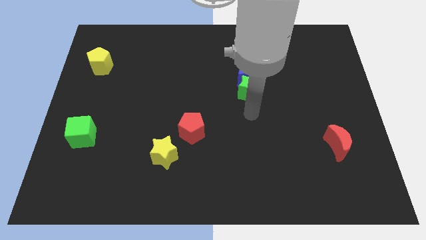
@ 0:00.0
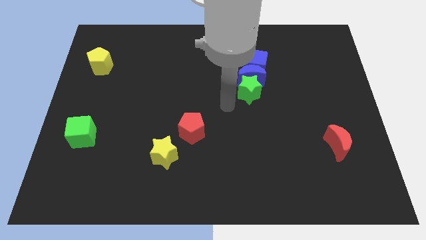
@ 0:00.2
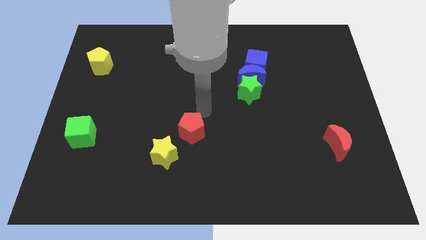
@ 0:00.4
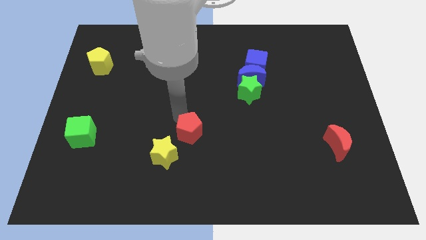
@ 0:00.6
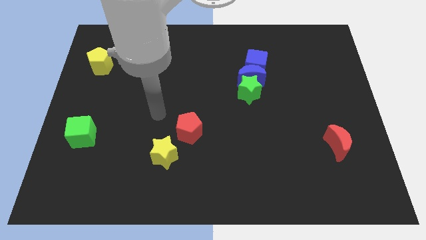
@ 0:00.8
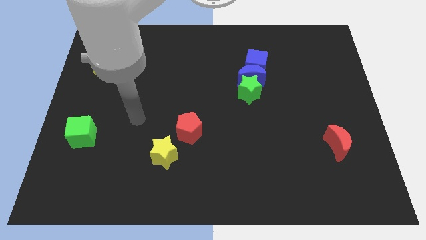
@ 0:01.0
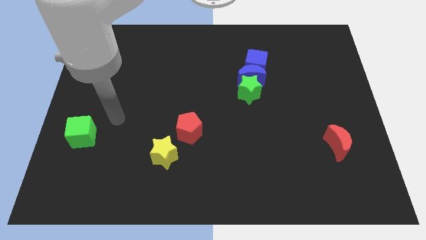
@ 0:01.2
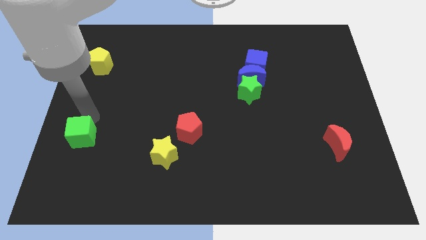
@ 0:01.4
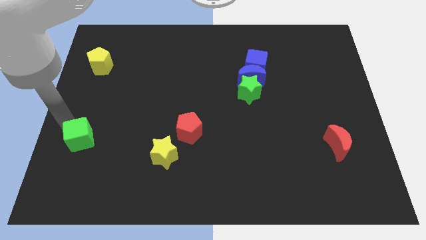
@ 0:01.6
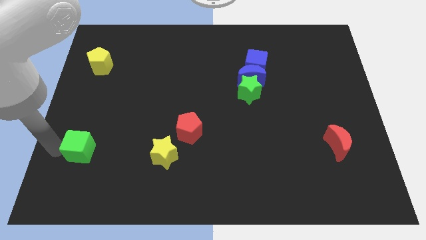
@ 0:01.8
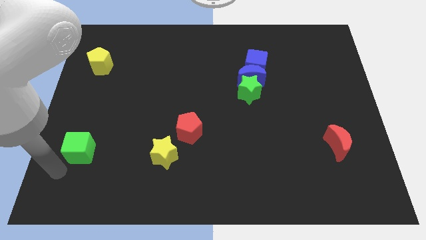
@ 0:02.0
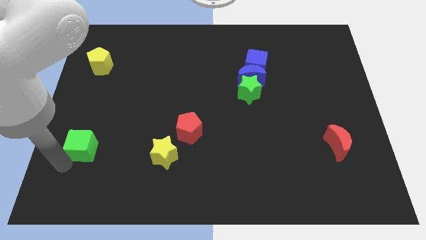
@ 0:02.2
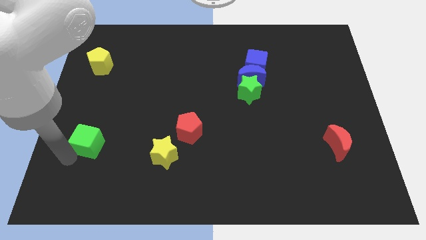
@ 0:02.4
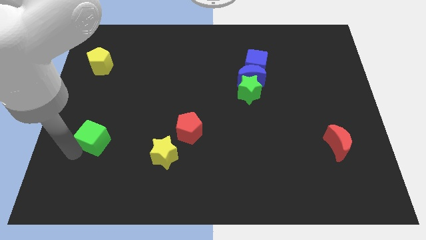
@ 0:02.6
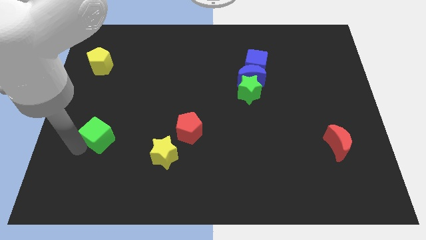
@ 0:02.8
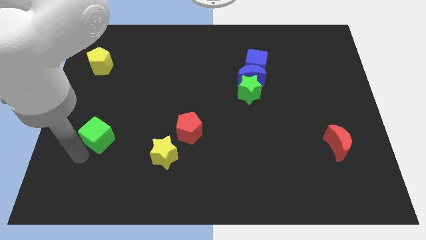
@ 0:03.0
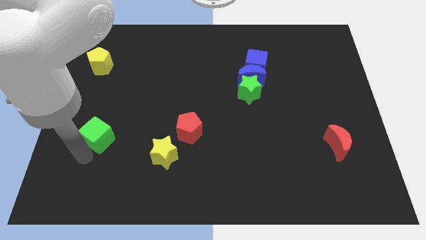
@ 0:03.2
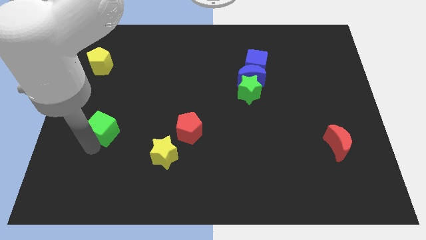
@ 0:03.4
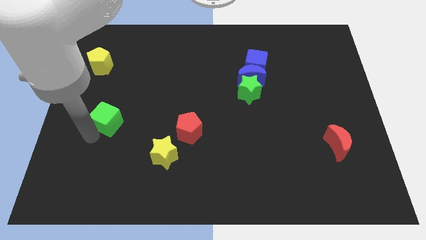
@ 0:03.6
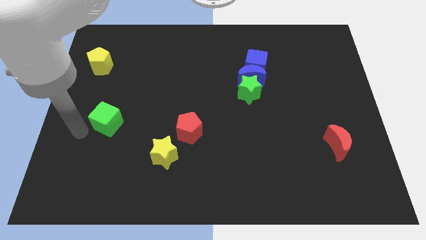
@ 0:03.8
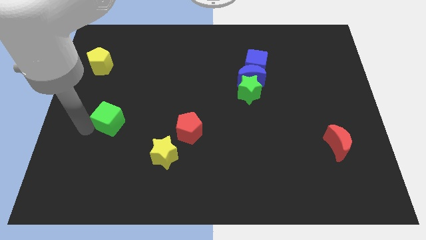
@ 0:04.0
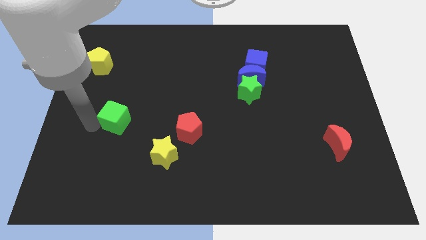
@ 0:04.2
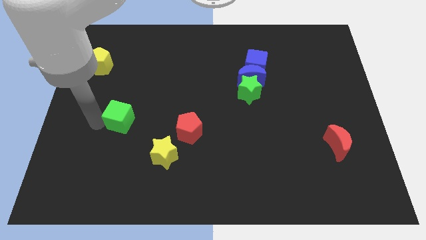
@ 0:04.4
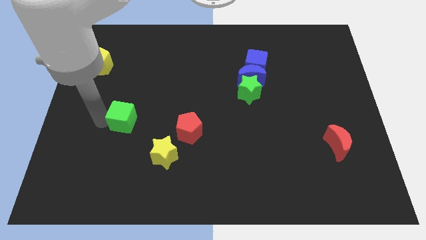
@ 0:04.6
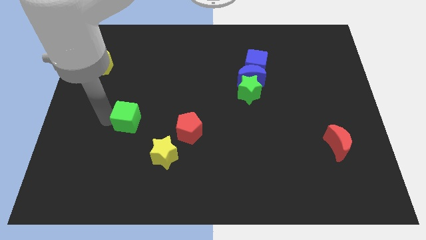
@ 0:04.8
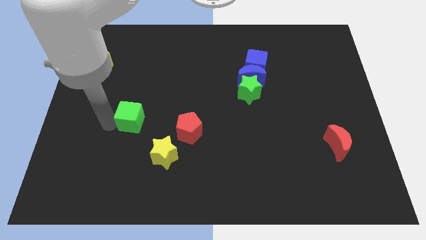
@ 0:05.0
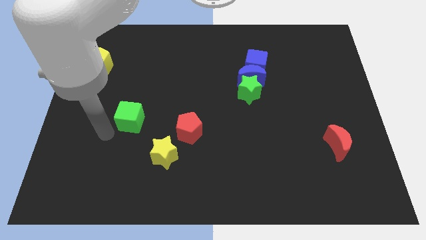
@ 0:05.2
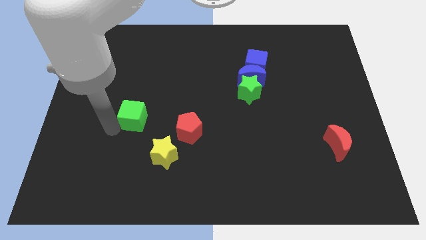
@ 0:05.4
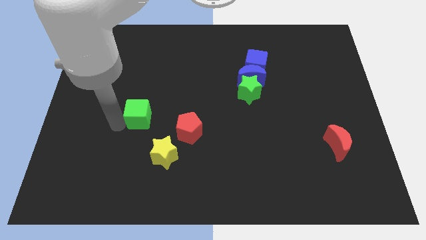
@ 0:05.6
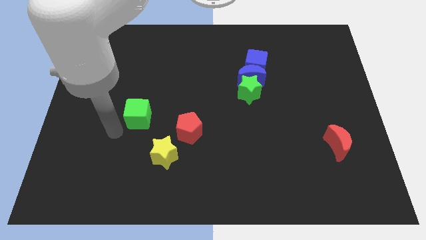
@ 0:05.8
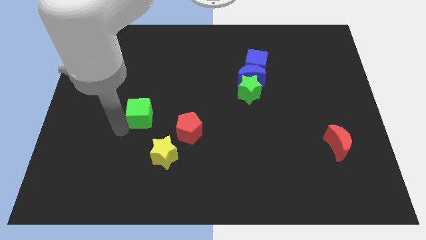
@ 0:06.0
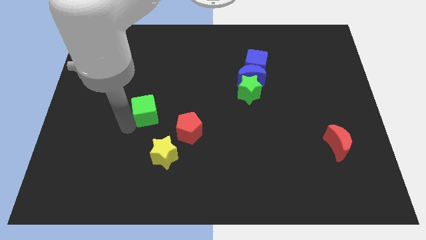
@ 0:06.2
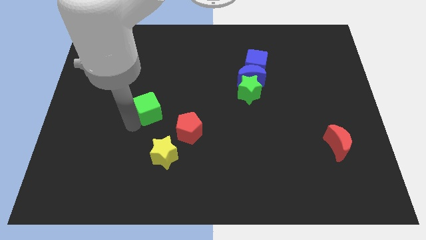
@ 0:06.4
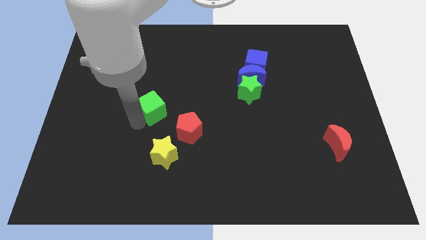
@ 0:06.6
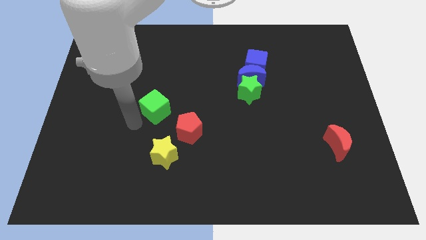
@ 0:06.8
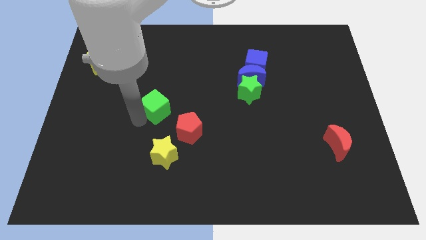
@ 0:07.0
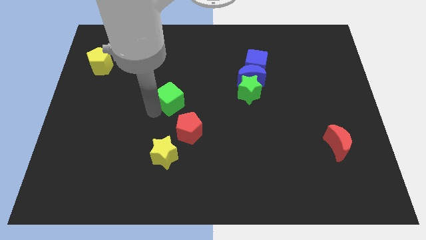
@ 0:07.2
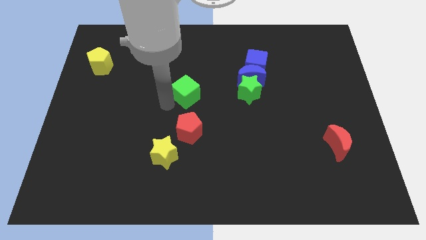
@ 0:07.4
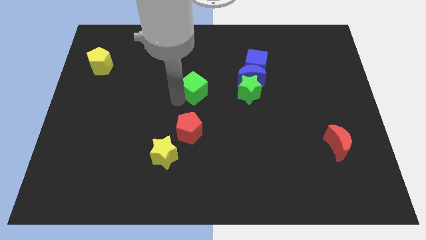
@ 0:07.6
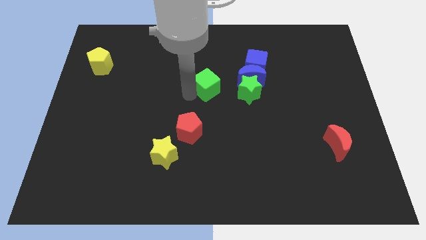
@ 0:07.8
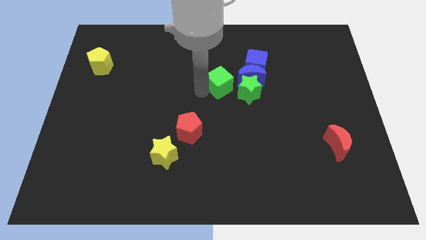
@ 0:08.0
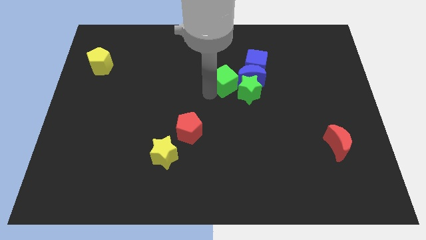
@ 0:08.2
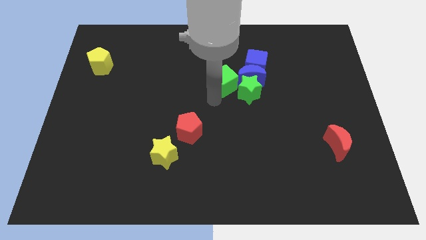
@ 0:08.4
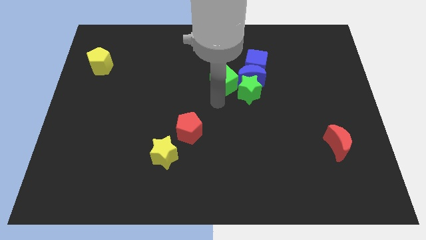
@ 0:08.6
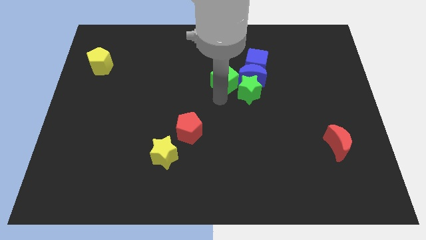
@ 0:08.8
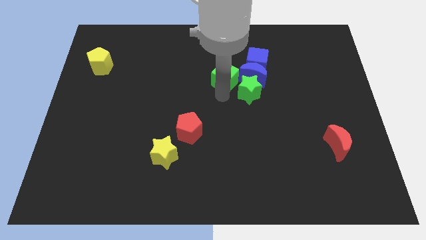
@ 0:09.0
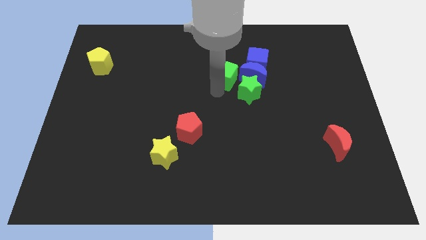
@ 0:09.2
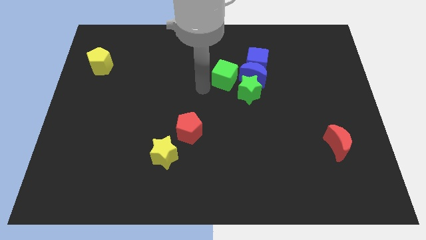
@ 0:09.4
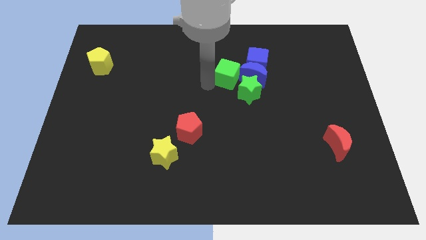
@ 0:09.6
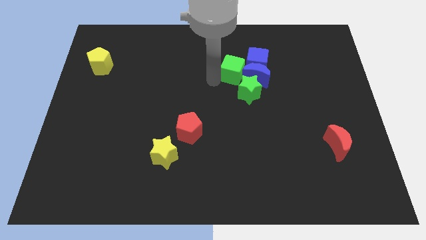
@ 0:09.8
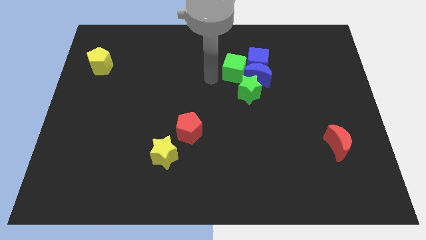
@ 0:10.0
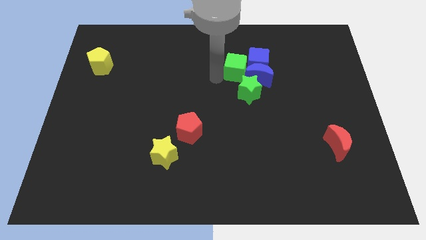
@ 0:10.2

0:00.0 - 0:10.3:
move the green cube close to the blue cube

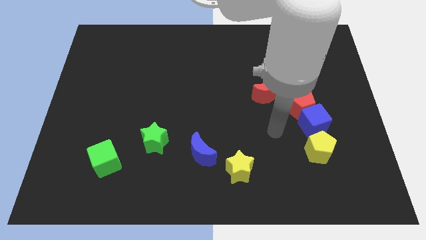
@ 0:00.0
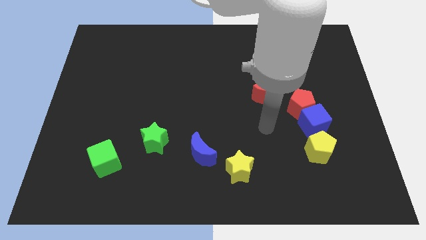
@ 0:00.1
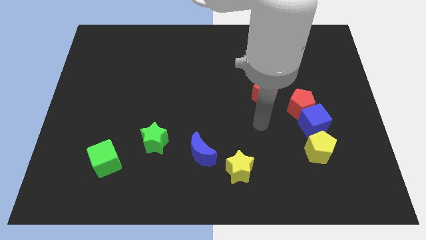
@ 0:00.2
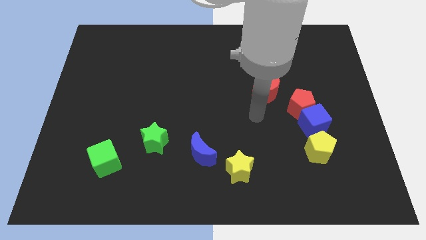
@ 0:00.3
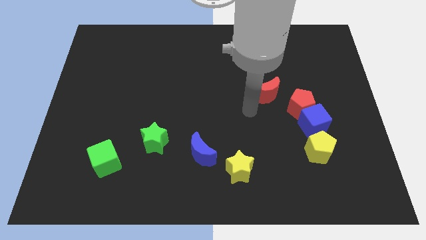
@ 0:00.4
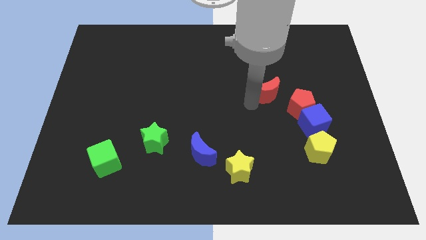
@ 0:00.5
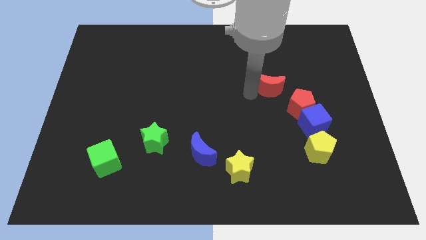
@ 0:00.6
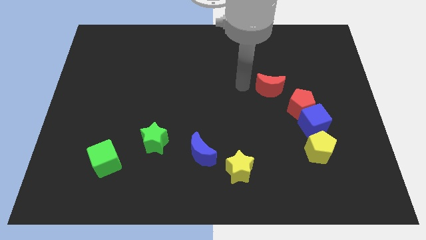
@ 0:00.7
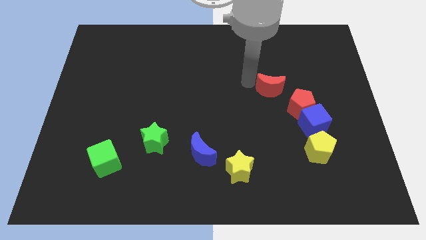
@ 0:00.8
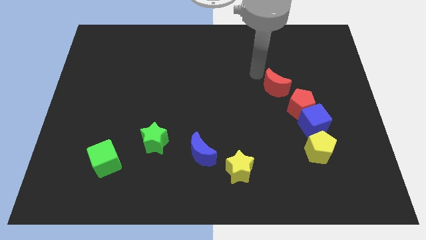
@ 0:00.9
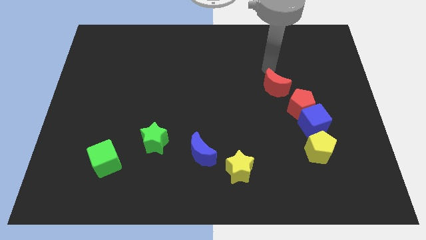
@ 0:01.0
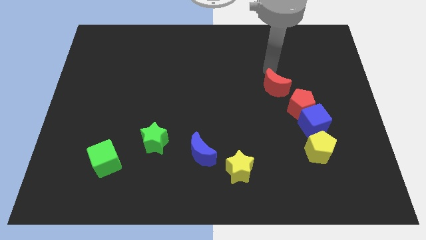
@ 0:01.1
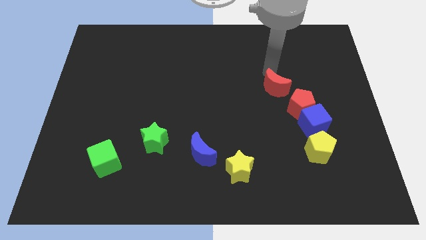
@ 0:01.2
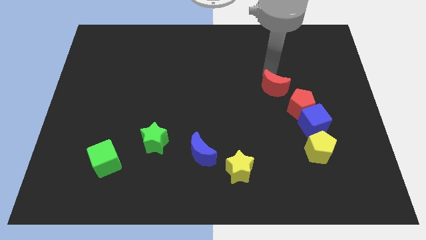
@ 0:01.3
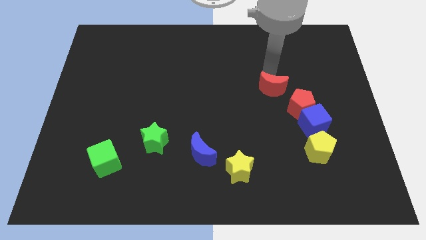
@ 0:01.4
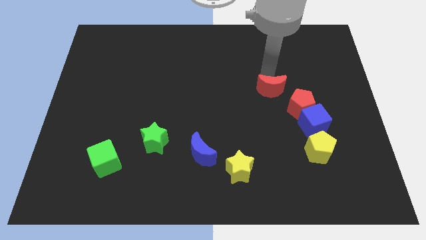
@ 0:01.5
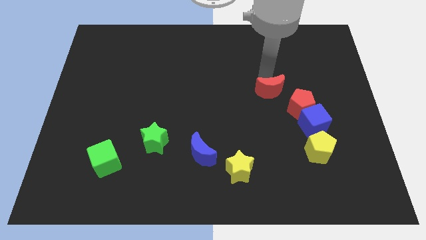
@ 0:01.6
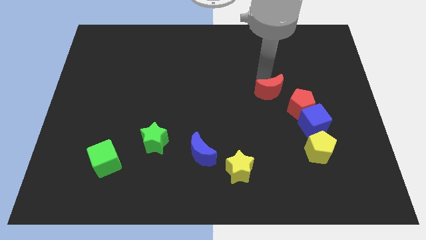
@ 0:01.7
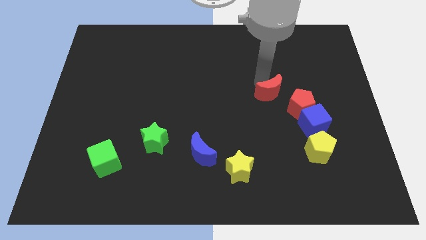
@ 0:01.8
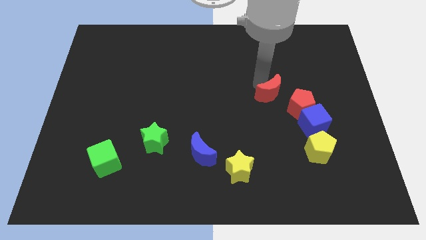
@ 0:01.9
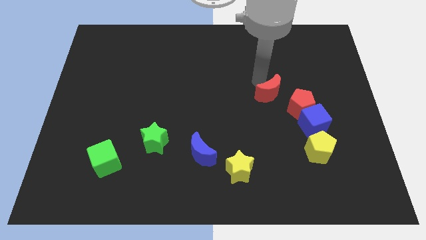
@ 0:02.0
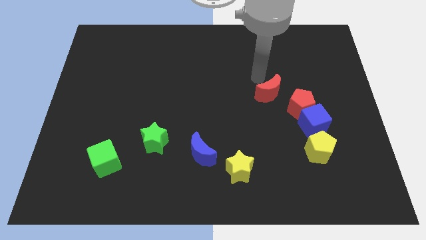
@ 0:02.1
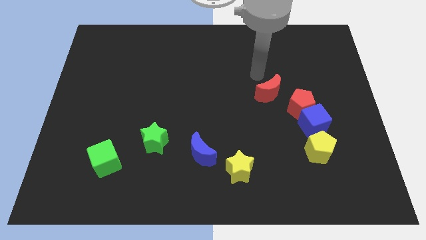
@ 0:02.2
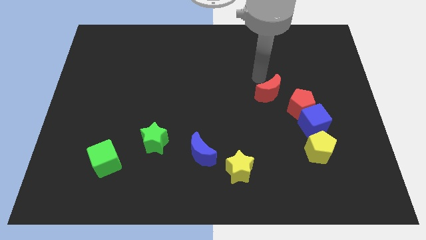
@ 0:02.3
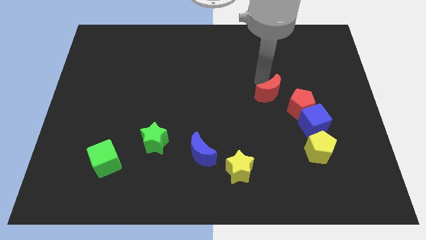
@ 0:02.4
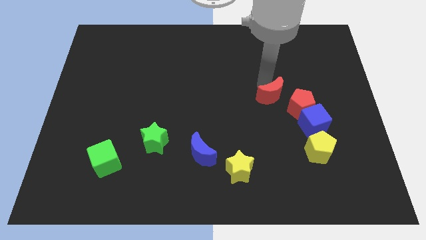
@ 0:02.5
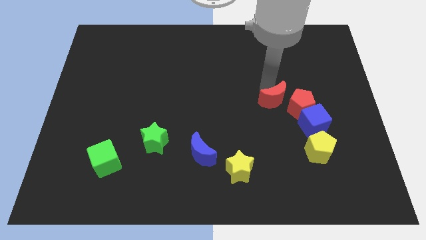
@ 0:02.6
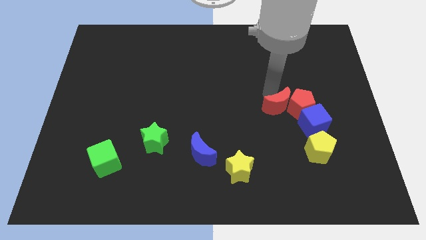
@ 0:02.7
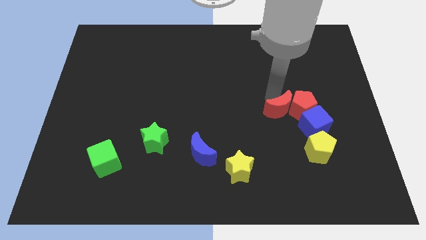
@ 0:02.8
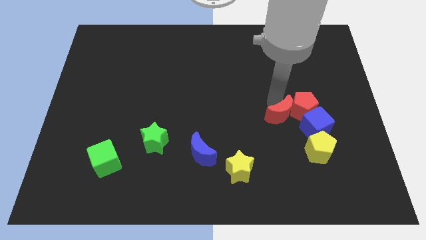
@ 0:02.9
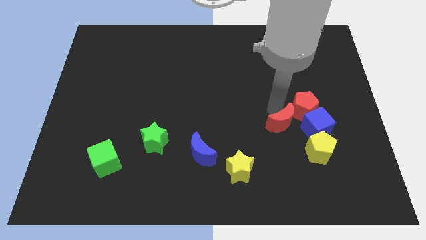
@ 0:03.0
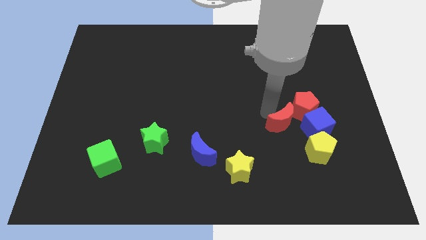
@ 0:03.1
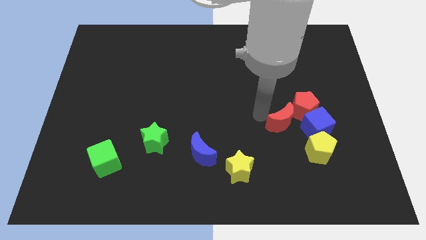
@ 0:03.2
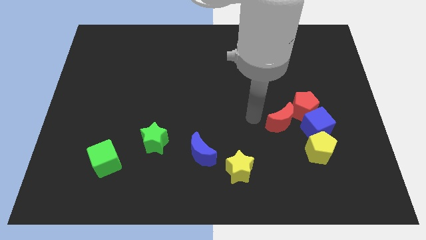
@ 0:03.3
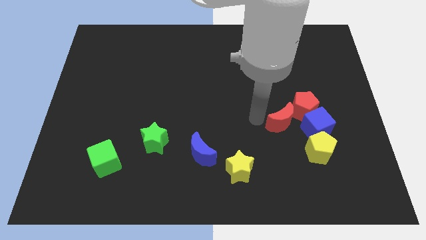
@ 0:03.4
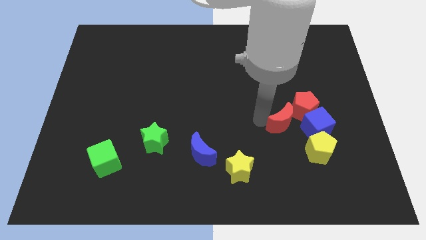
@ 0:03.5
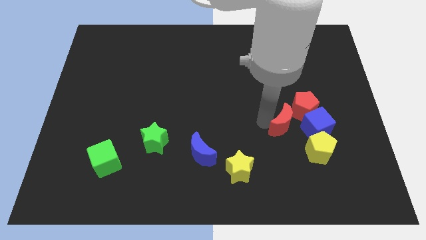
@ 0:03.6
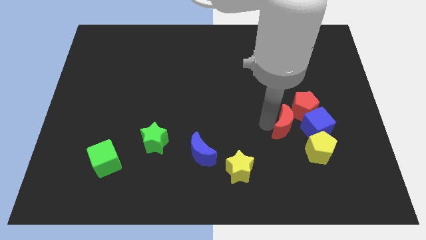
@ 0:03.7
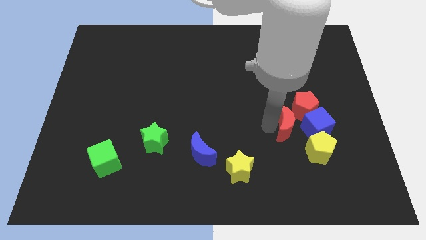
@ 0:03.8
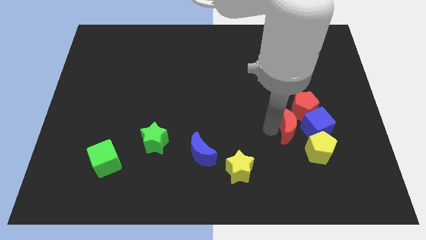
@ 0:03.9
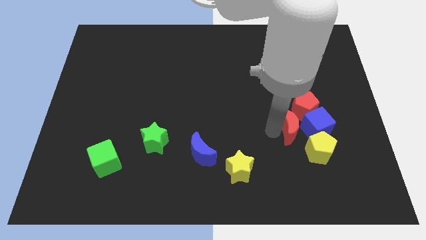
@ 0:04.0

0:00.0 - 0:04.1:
move the red moon close to the blue cube
